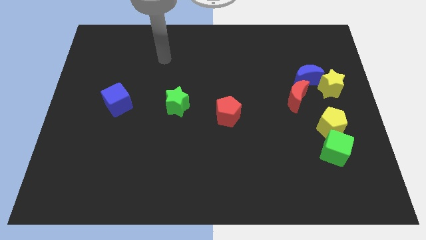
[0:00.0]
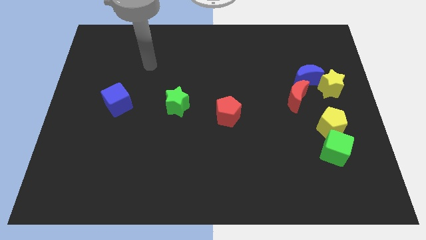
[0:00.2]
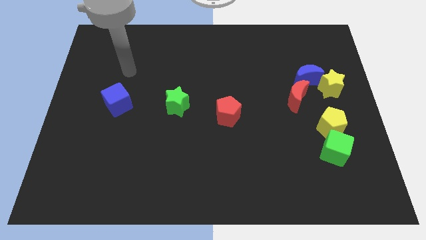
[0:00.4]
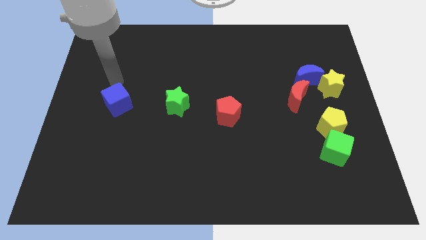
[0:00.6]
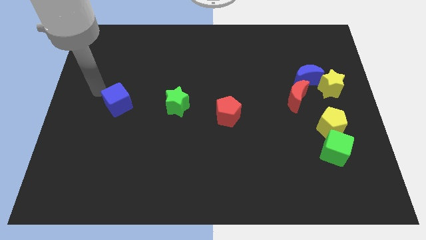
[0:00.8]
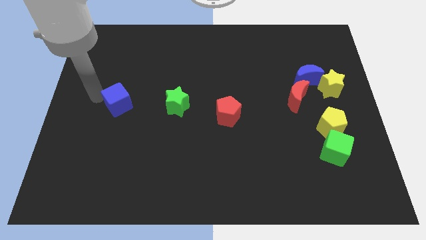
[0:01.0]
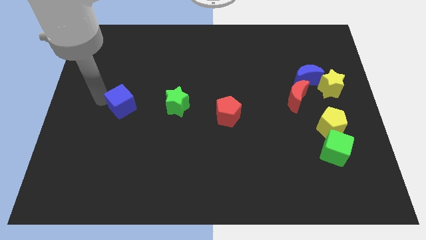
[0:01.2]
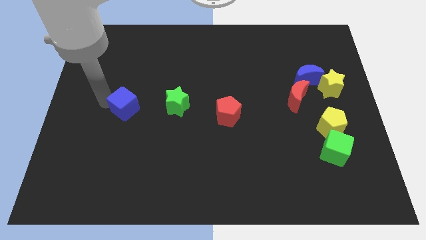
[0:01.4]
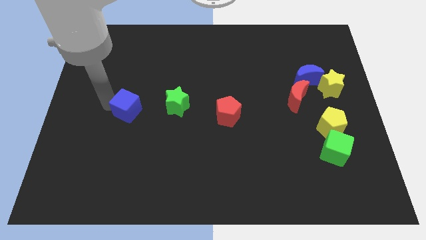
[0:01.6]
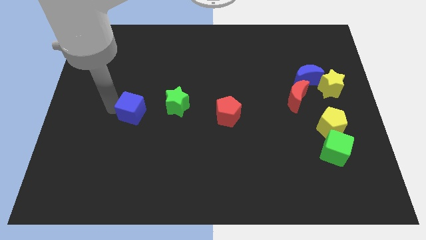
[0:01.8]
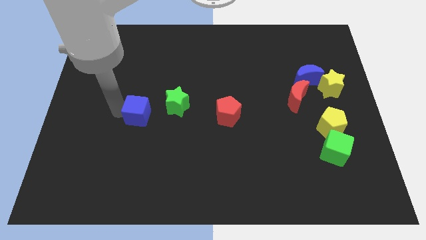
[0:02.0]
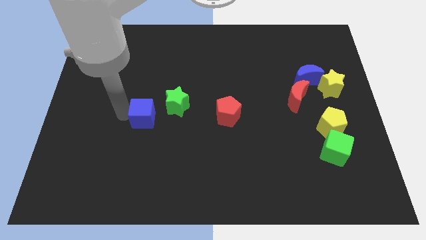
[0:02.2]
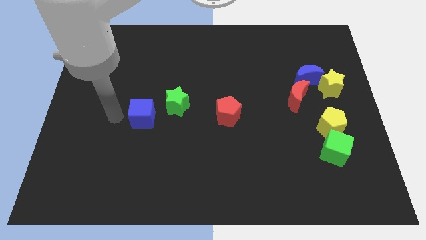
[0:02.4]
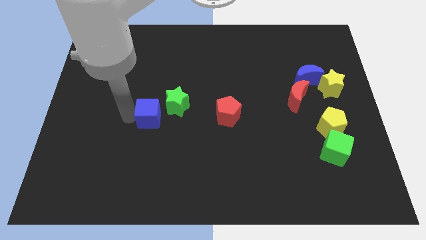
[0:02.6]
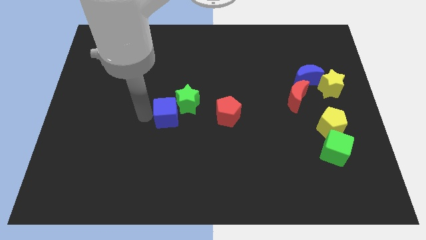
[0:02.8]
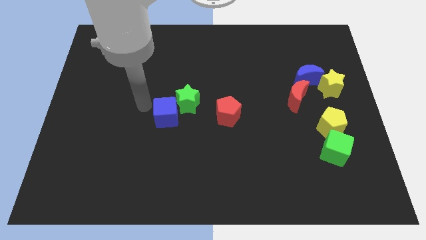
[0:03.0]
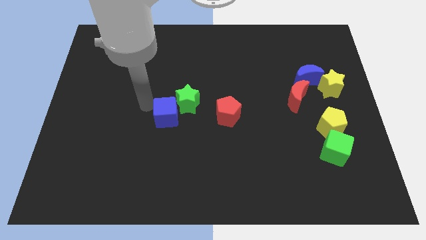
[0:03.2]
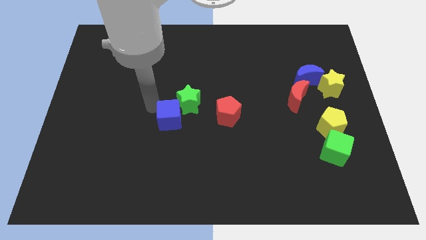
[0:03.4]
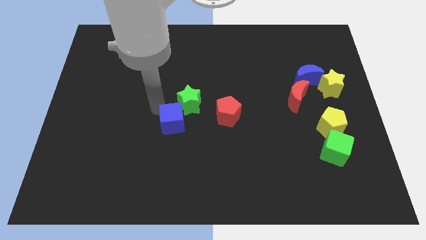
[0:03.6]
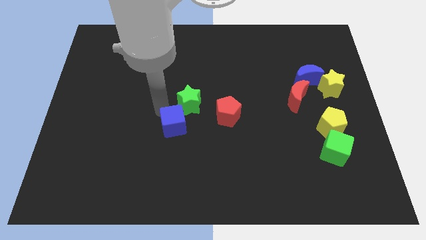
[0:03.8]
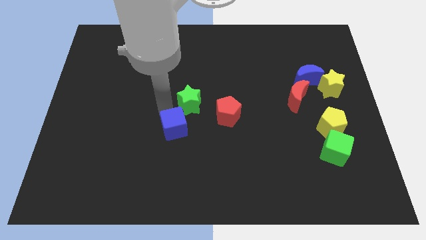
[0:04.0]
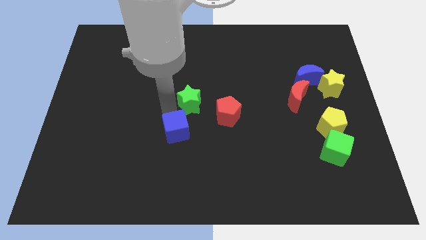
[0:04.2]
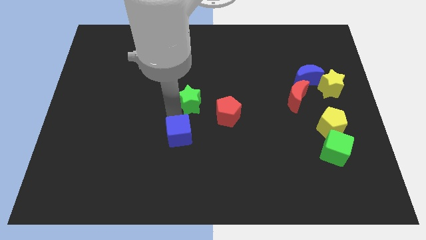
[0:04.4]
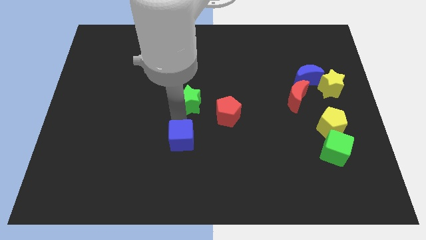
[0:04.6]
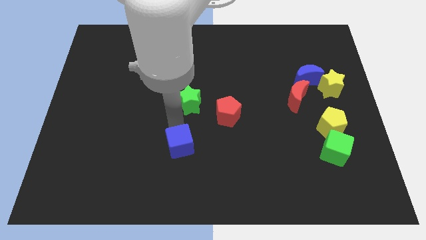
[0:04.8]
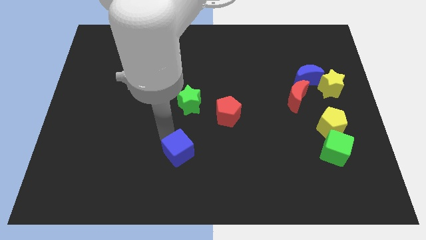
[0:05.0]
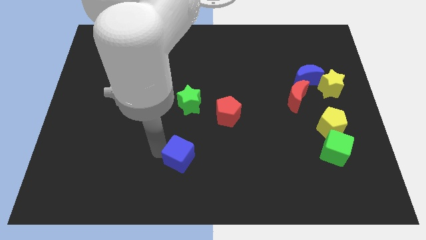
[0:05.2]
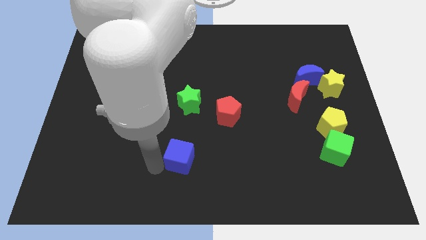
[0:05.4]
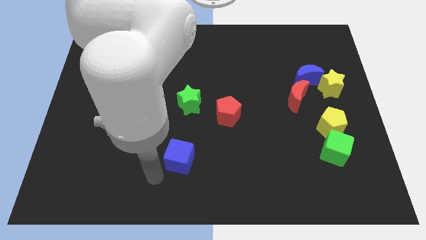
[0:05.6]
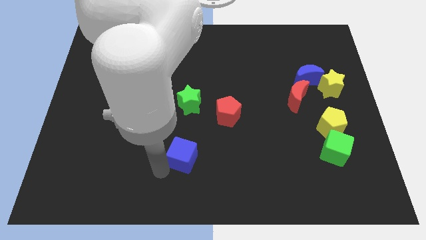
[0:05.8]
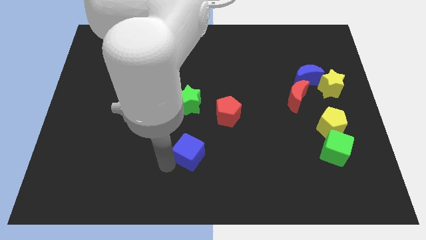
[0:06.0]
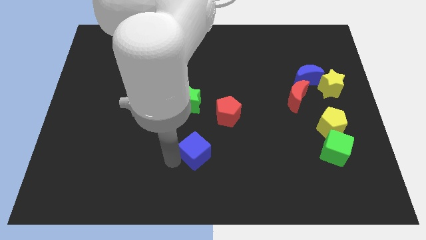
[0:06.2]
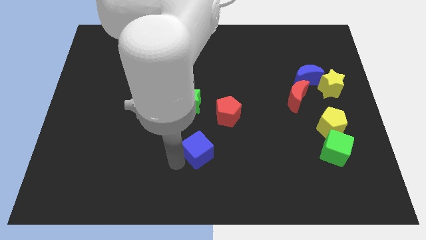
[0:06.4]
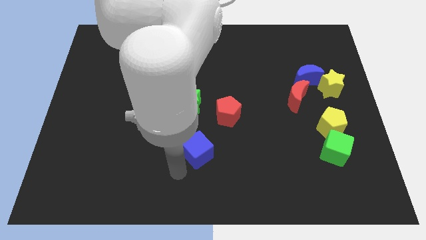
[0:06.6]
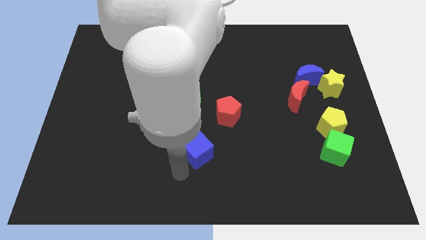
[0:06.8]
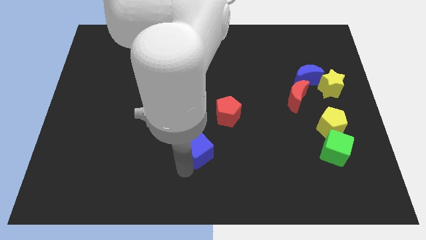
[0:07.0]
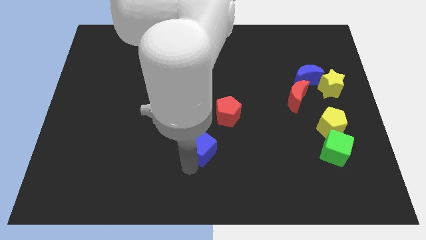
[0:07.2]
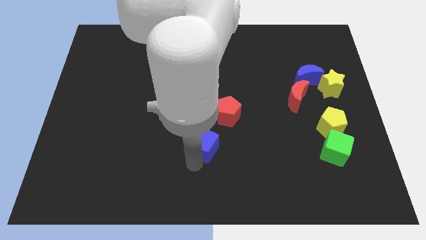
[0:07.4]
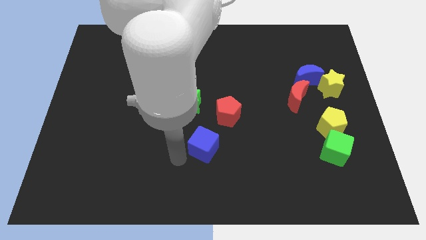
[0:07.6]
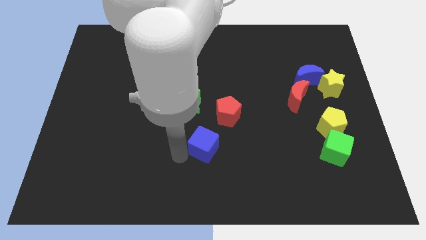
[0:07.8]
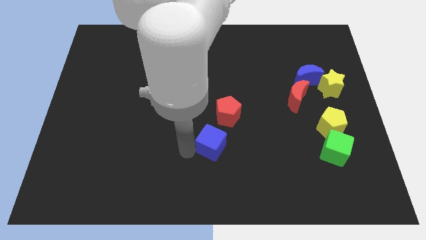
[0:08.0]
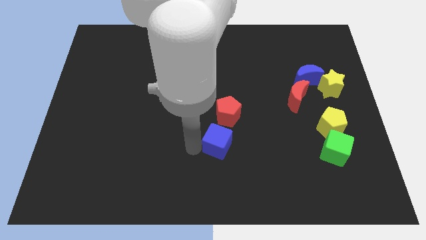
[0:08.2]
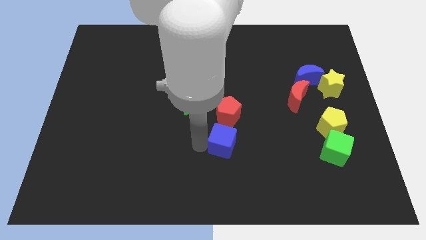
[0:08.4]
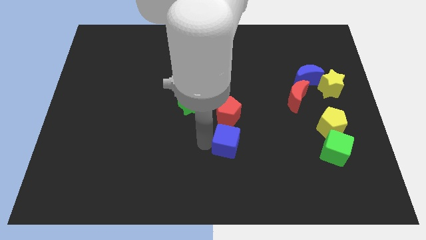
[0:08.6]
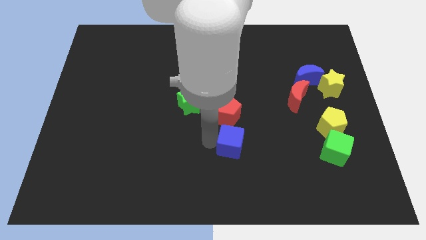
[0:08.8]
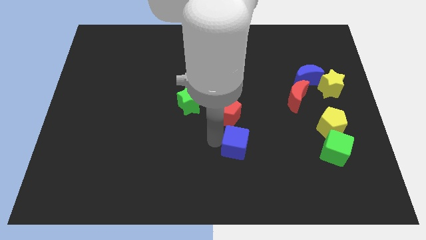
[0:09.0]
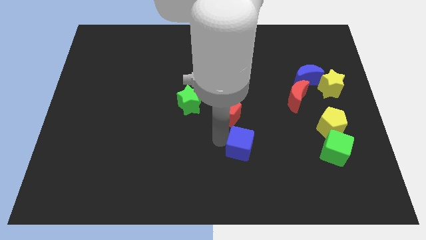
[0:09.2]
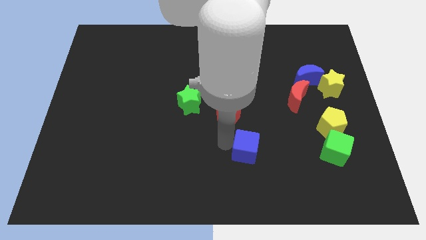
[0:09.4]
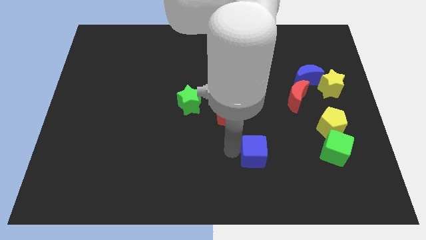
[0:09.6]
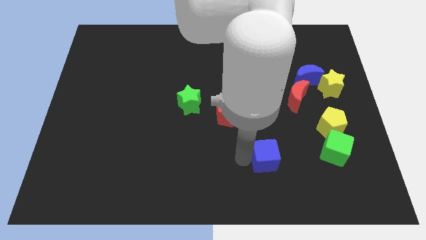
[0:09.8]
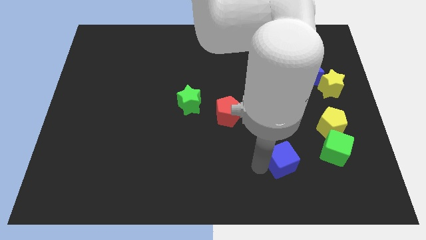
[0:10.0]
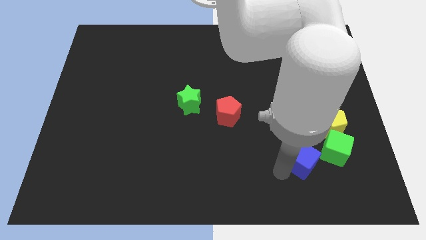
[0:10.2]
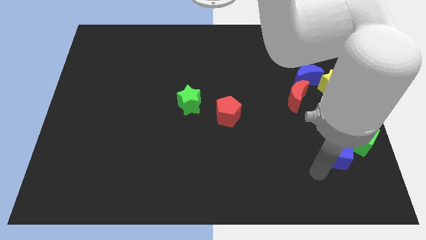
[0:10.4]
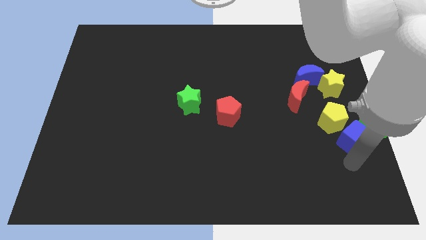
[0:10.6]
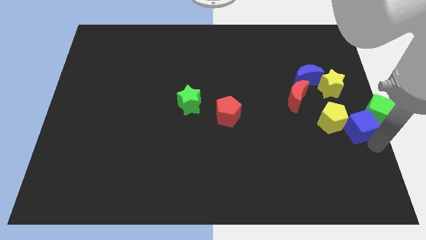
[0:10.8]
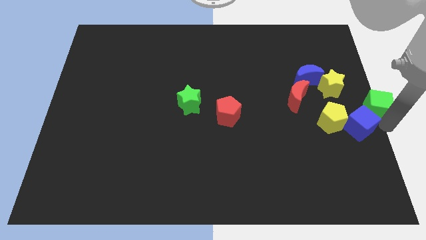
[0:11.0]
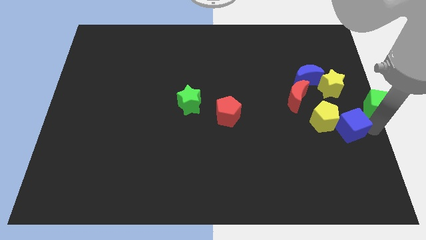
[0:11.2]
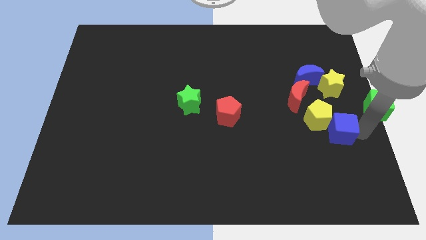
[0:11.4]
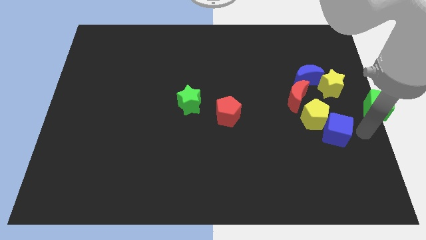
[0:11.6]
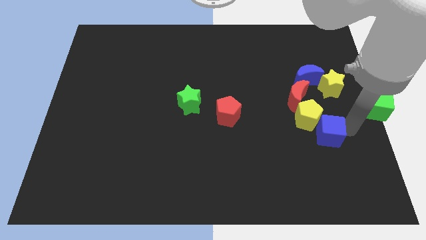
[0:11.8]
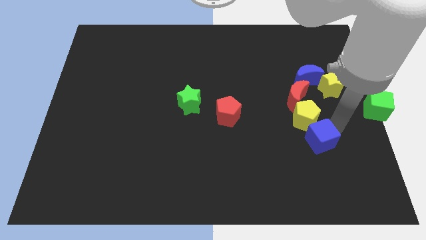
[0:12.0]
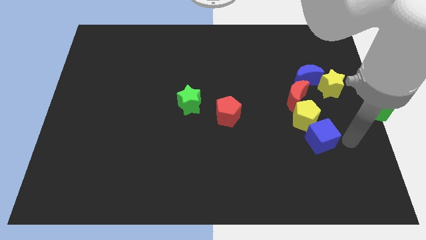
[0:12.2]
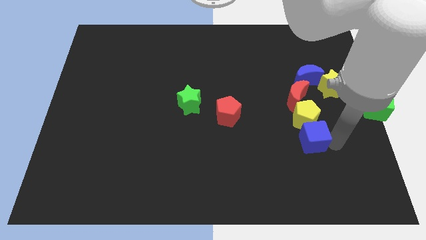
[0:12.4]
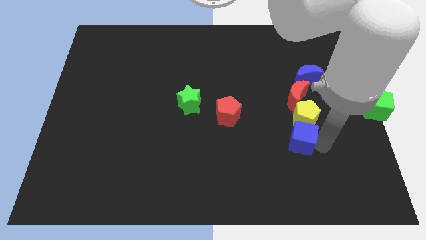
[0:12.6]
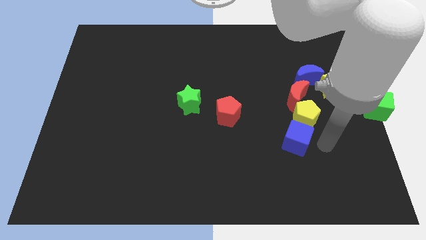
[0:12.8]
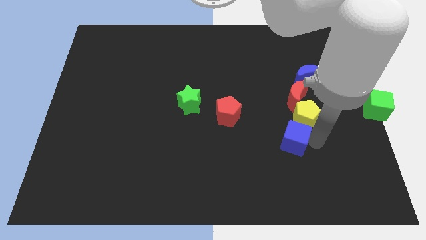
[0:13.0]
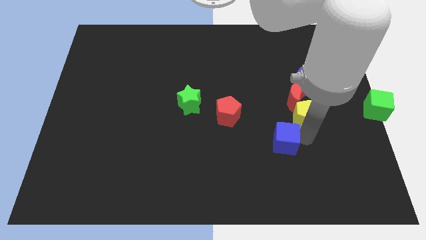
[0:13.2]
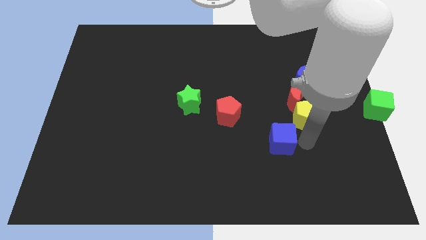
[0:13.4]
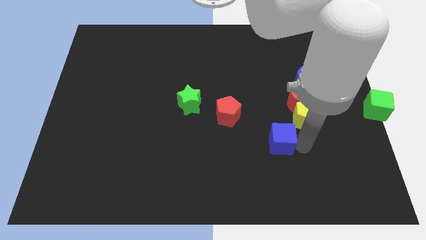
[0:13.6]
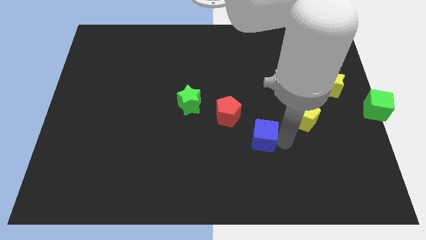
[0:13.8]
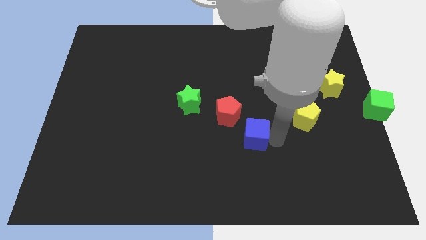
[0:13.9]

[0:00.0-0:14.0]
put the blue cube left of the yellow pentagon
